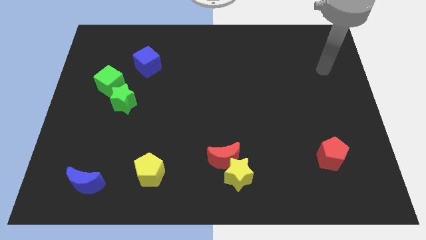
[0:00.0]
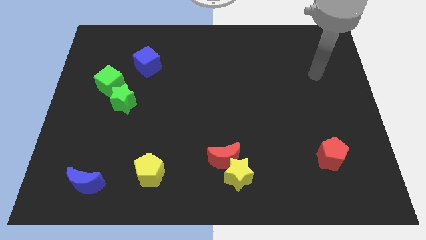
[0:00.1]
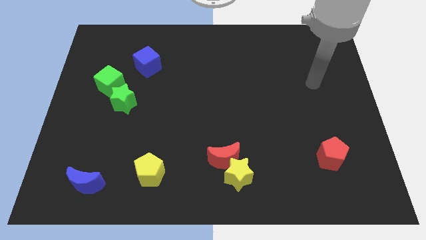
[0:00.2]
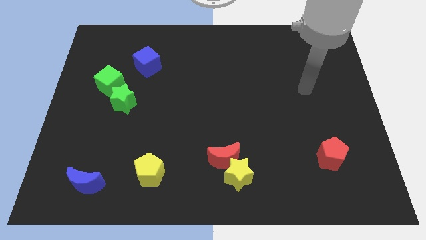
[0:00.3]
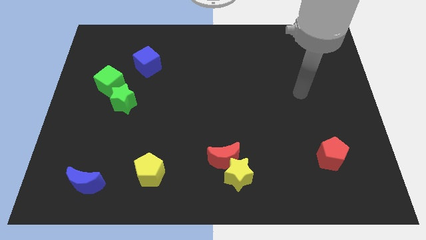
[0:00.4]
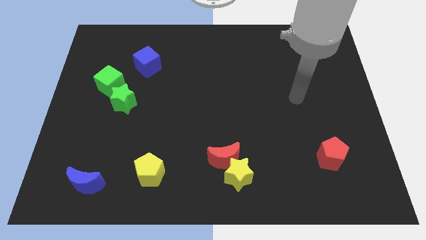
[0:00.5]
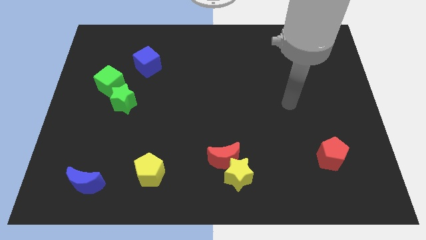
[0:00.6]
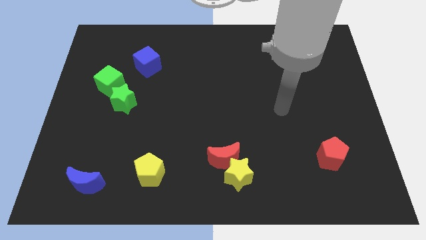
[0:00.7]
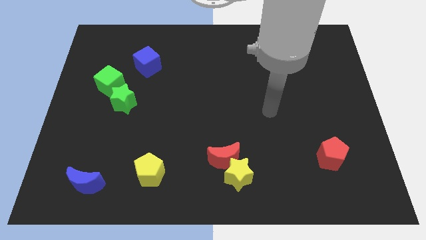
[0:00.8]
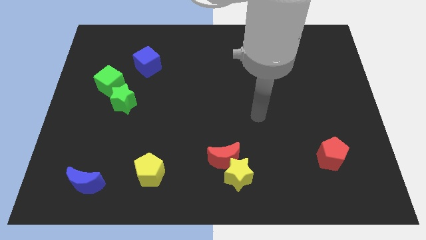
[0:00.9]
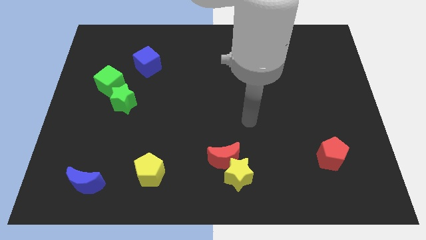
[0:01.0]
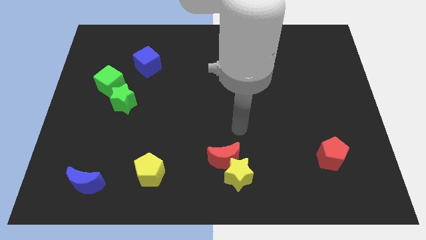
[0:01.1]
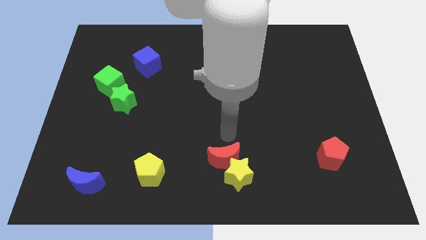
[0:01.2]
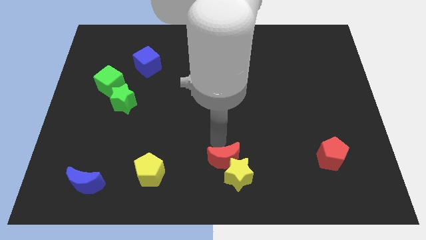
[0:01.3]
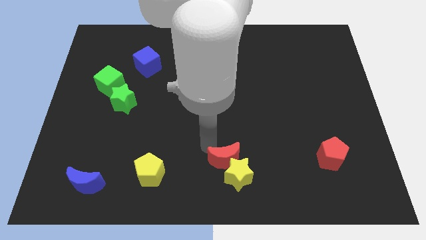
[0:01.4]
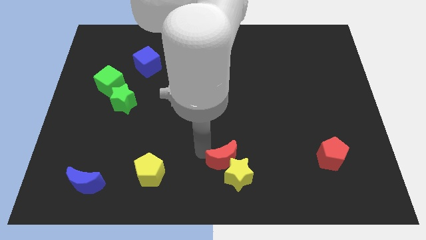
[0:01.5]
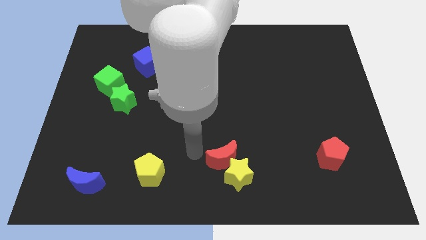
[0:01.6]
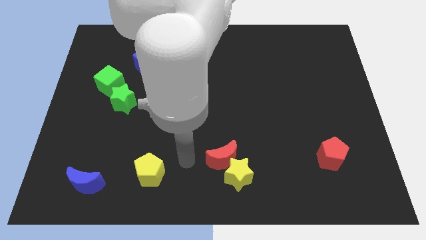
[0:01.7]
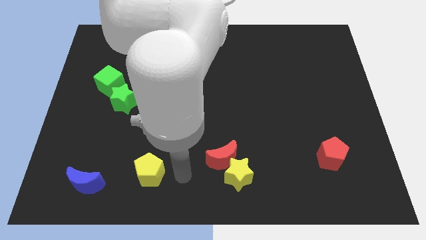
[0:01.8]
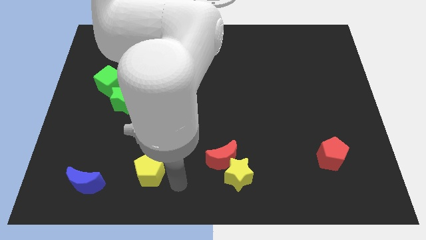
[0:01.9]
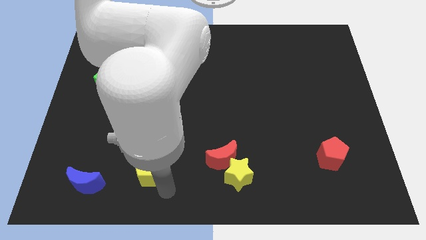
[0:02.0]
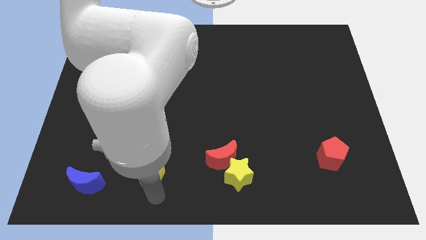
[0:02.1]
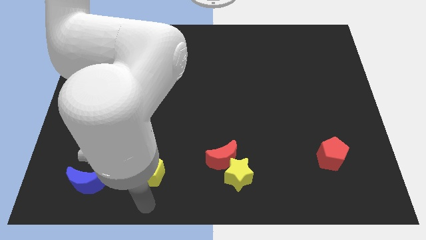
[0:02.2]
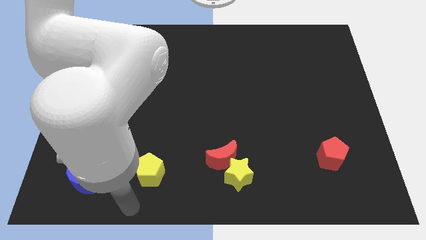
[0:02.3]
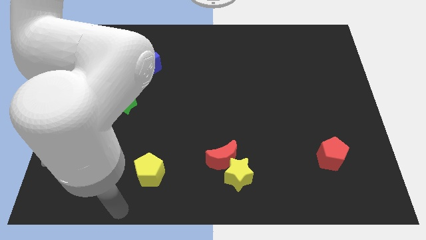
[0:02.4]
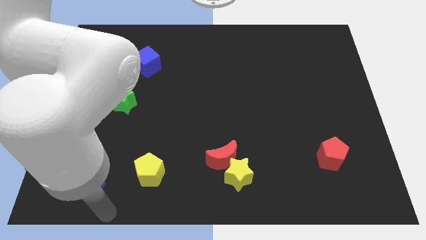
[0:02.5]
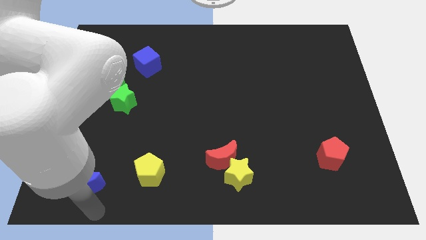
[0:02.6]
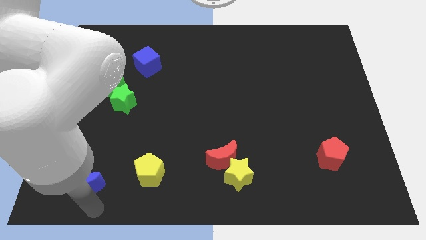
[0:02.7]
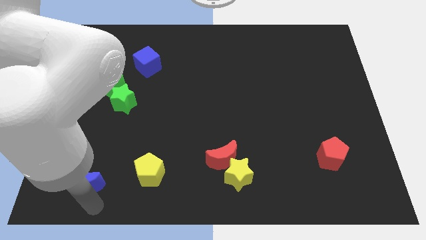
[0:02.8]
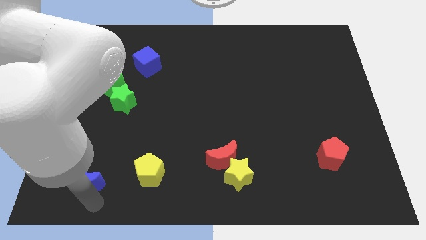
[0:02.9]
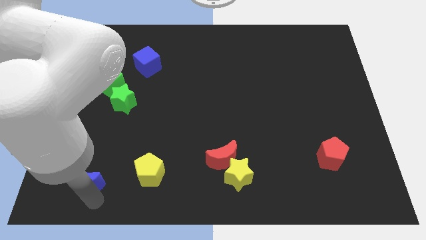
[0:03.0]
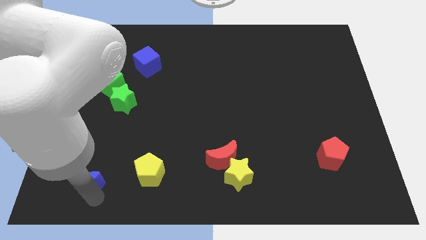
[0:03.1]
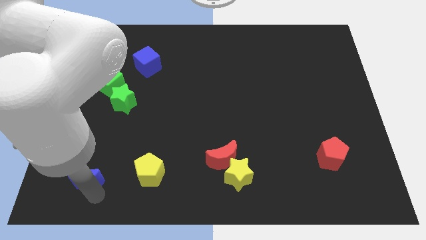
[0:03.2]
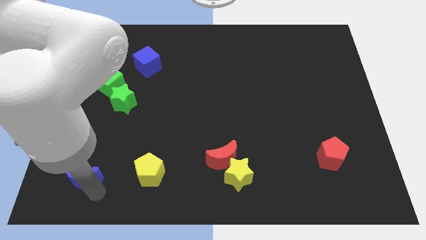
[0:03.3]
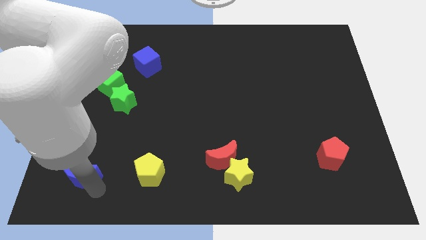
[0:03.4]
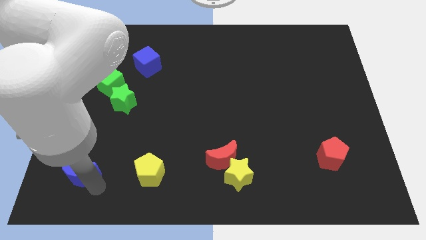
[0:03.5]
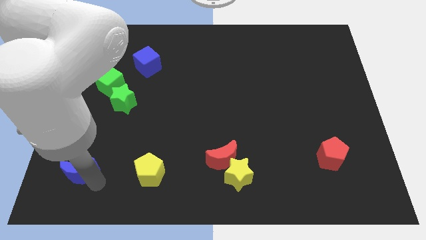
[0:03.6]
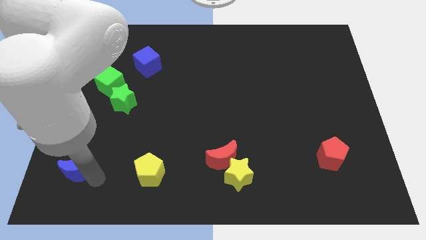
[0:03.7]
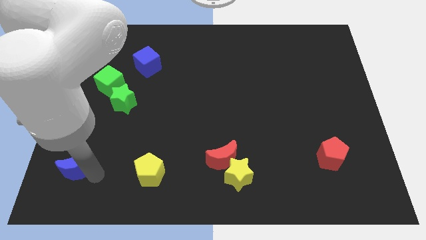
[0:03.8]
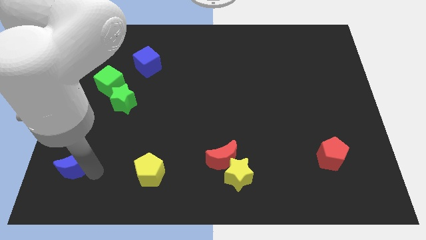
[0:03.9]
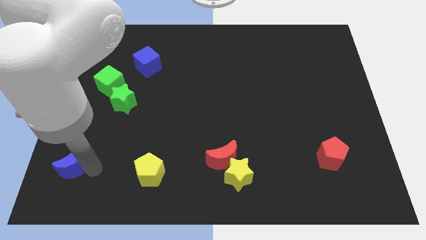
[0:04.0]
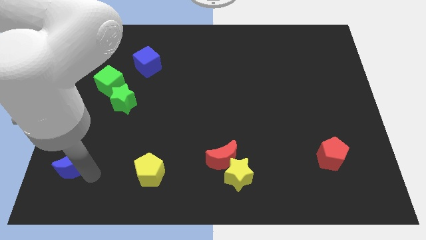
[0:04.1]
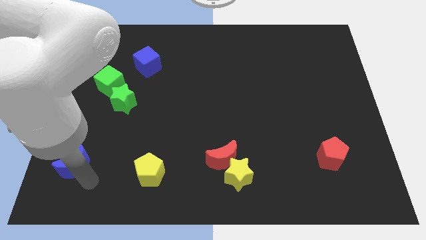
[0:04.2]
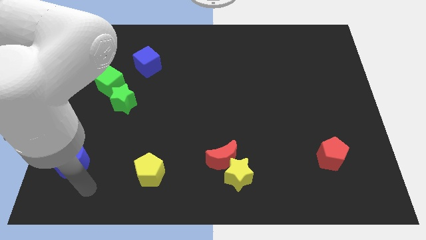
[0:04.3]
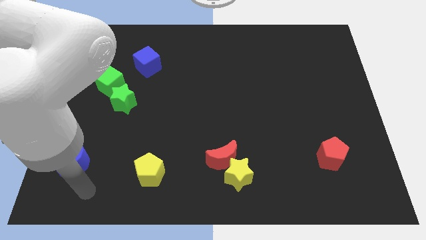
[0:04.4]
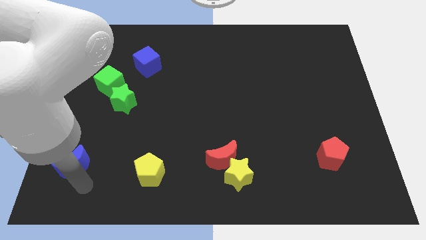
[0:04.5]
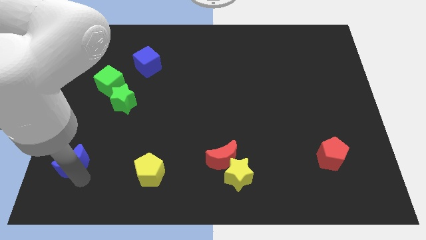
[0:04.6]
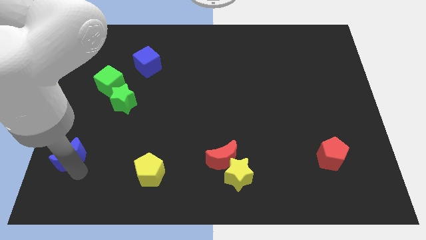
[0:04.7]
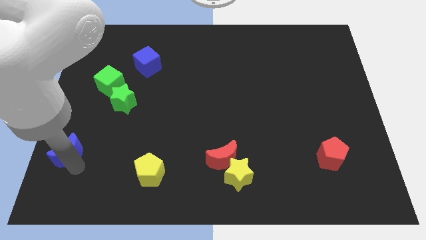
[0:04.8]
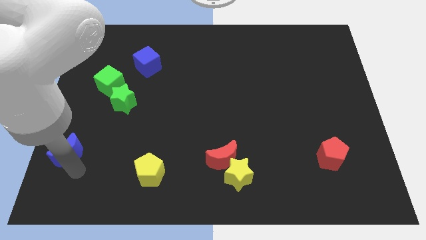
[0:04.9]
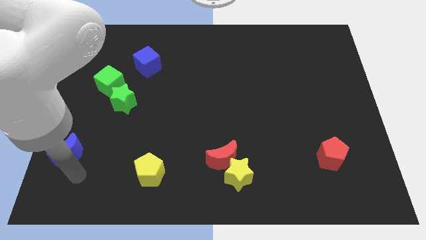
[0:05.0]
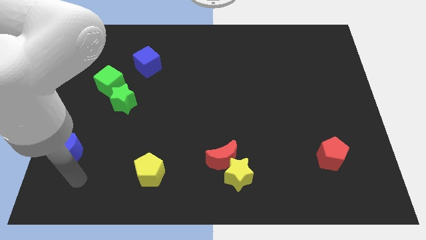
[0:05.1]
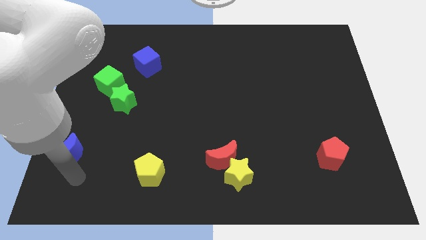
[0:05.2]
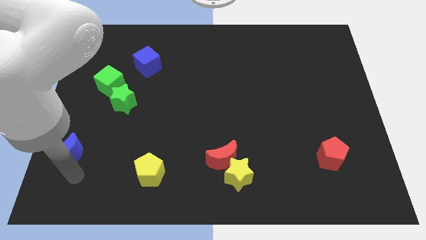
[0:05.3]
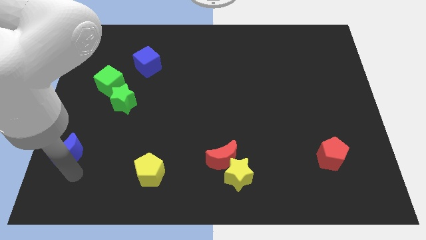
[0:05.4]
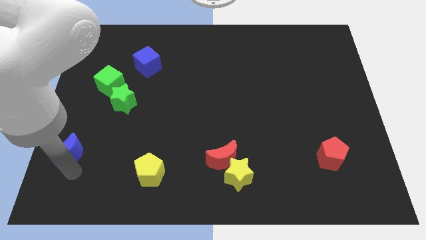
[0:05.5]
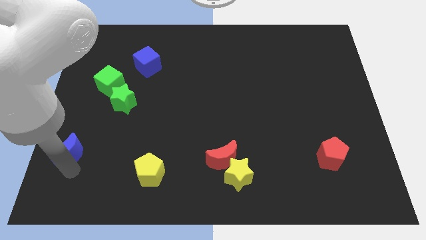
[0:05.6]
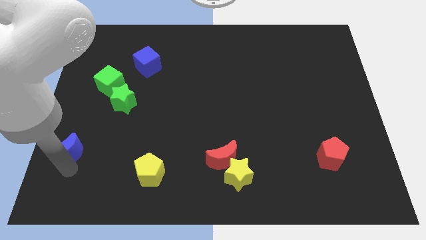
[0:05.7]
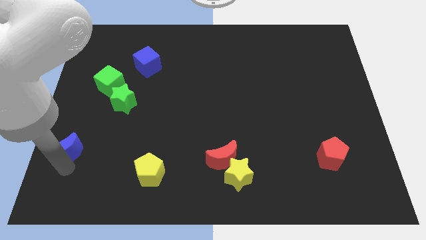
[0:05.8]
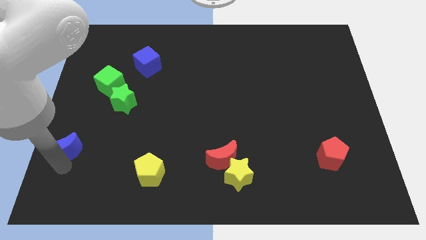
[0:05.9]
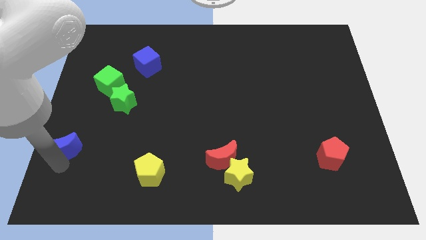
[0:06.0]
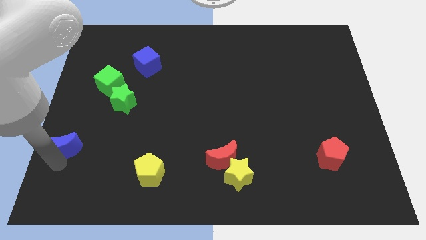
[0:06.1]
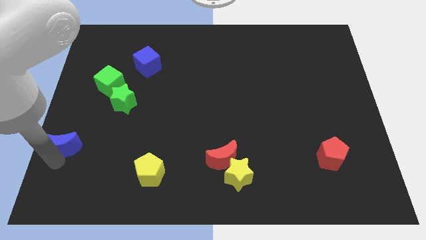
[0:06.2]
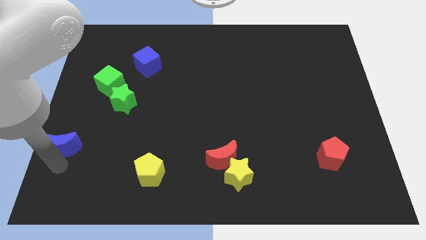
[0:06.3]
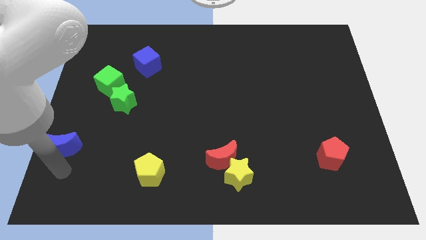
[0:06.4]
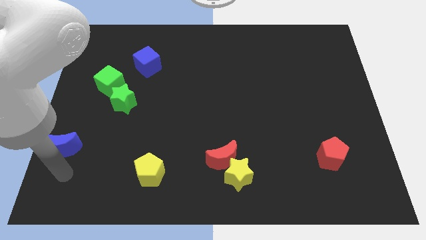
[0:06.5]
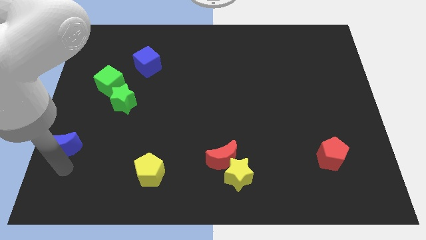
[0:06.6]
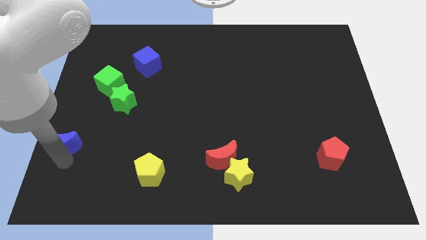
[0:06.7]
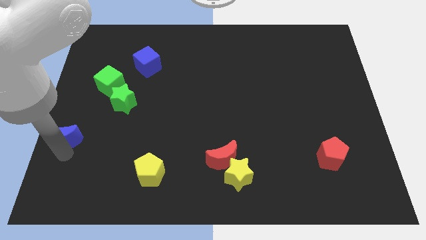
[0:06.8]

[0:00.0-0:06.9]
move the blue moon to the left side
